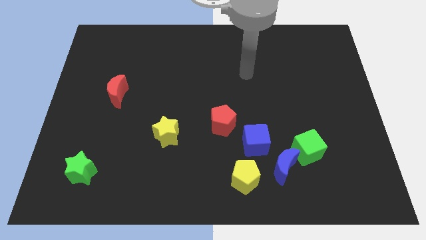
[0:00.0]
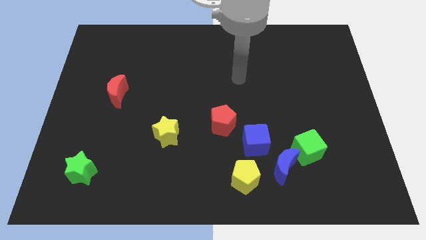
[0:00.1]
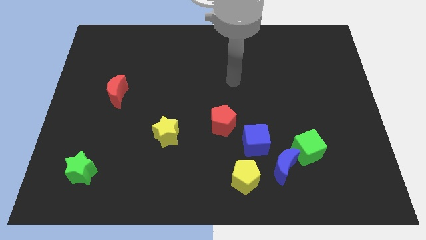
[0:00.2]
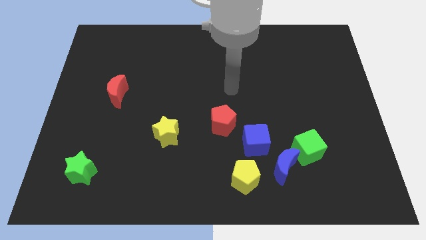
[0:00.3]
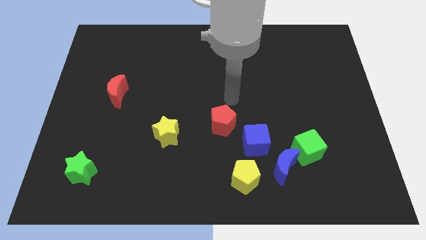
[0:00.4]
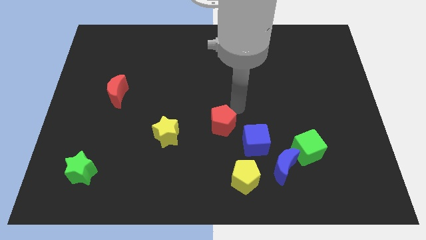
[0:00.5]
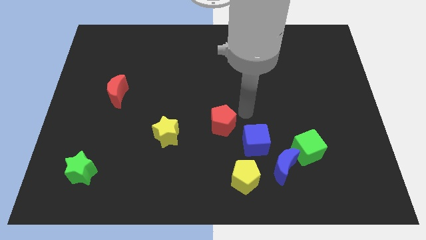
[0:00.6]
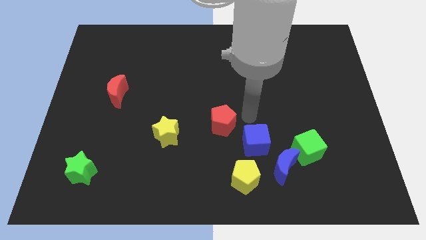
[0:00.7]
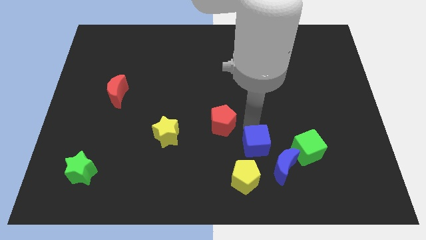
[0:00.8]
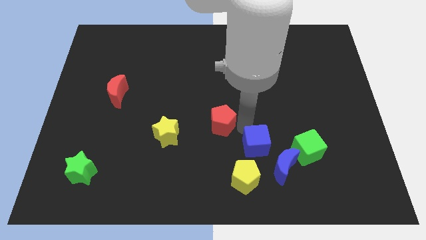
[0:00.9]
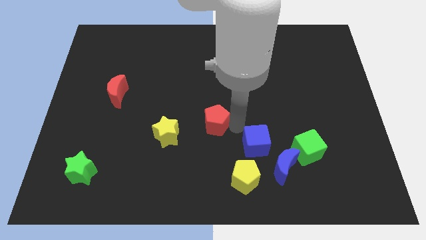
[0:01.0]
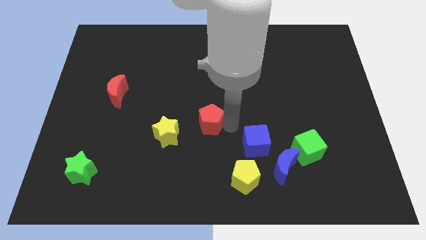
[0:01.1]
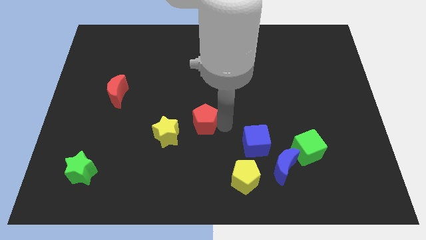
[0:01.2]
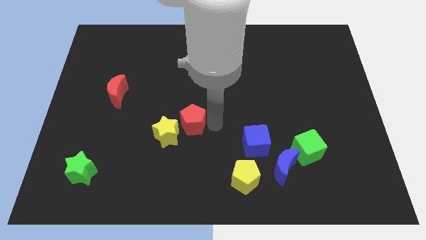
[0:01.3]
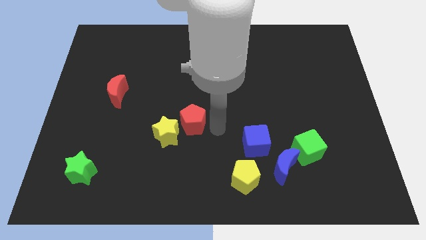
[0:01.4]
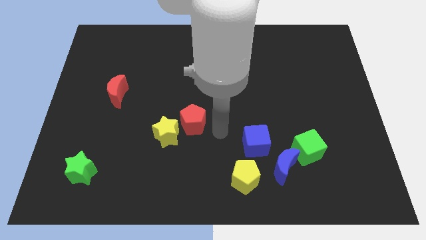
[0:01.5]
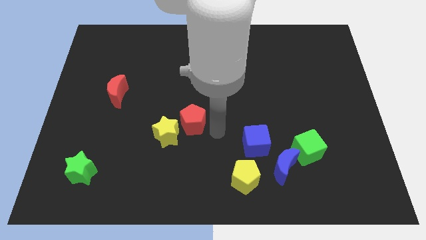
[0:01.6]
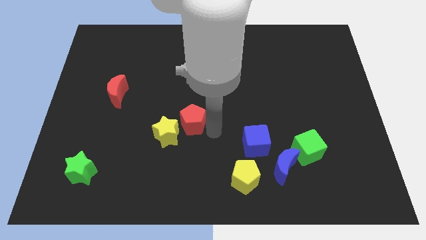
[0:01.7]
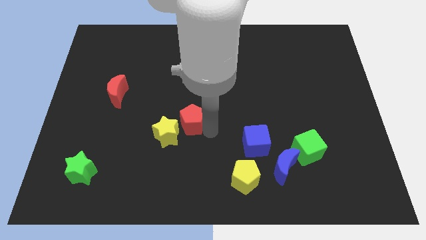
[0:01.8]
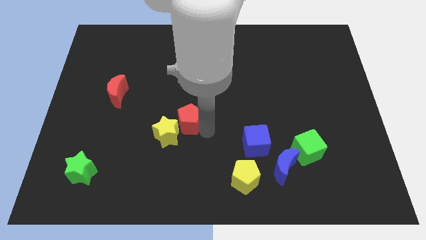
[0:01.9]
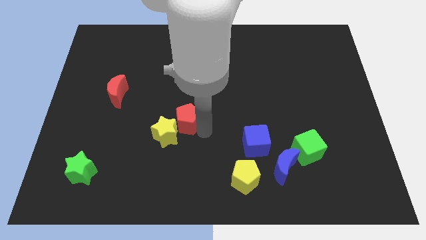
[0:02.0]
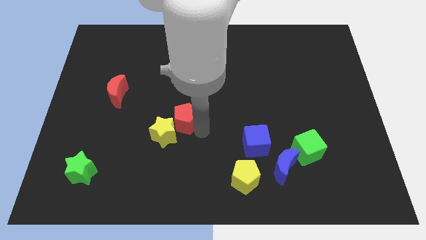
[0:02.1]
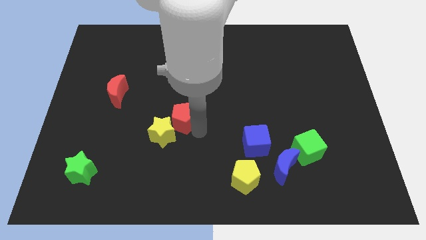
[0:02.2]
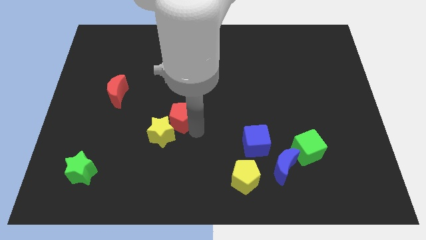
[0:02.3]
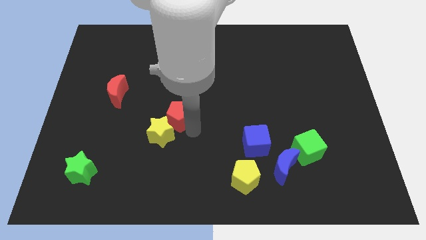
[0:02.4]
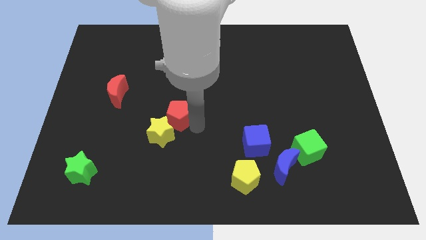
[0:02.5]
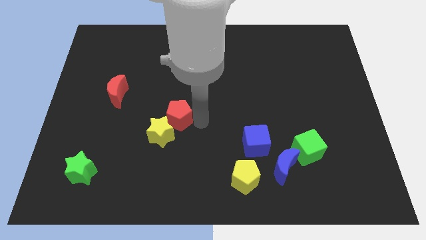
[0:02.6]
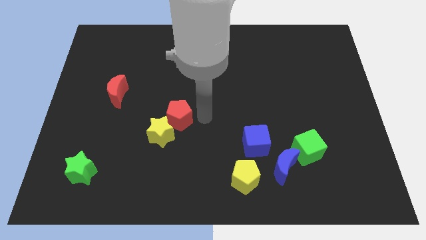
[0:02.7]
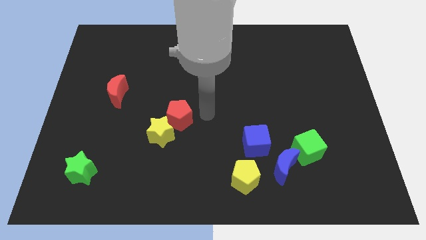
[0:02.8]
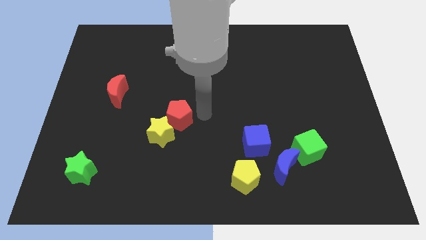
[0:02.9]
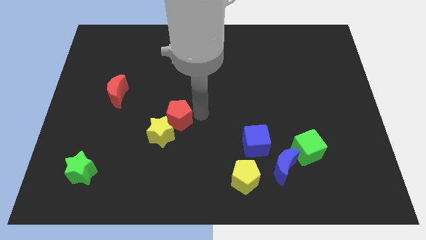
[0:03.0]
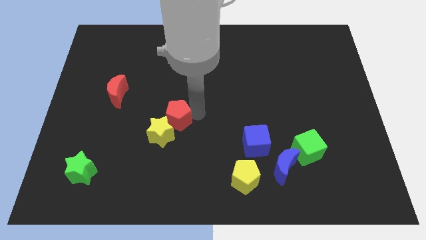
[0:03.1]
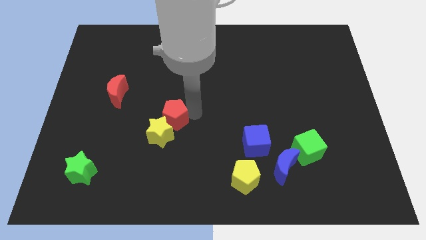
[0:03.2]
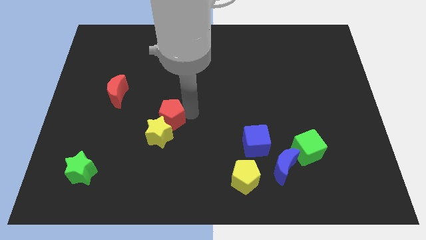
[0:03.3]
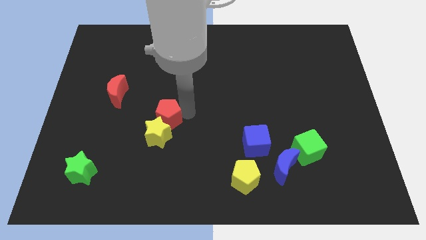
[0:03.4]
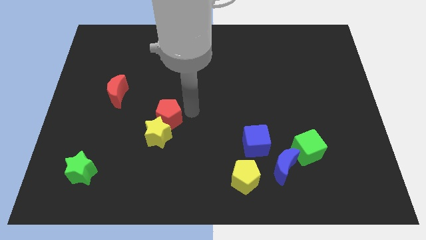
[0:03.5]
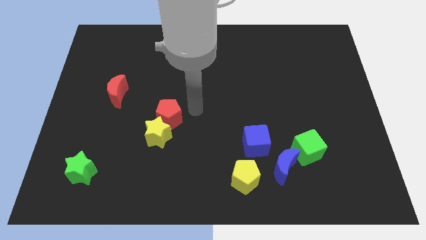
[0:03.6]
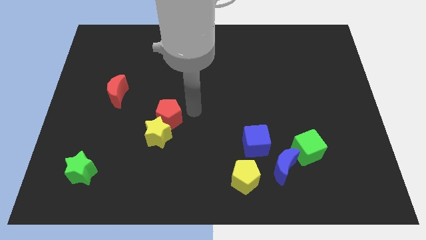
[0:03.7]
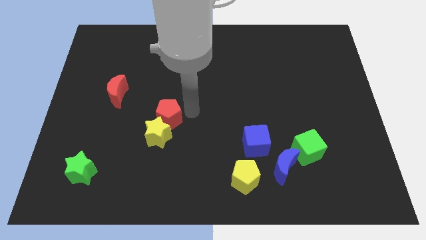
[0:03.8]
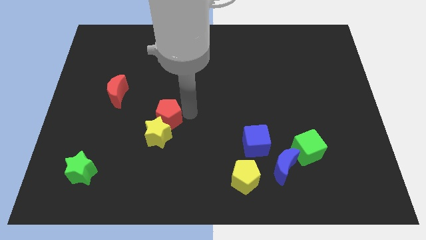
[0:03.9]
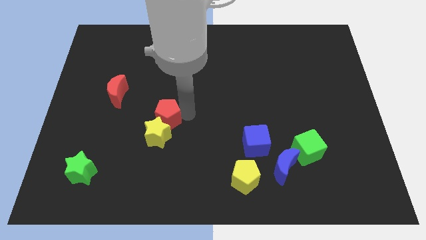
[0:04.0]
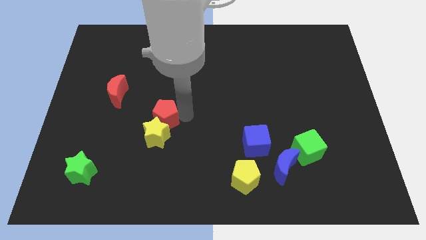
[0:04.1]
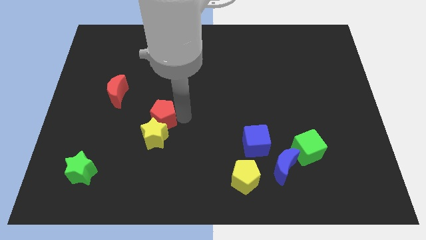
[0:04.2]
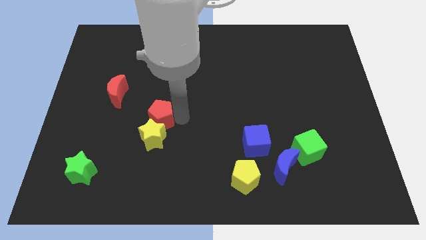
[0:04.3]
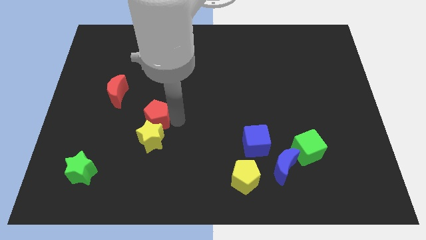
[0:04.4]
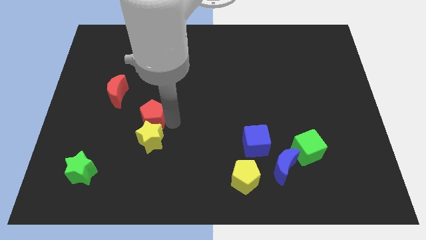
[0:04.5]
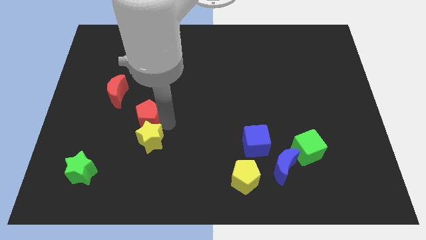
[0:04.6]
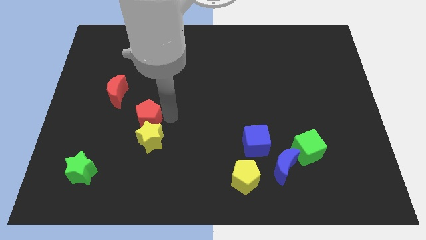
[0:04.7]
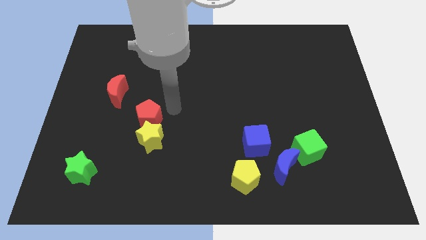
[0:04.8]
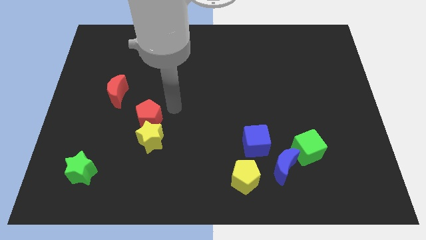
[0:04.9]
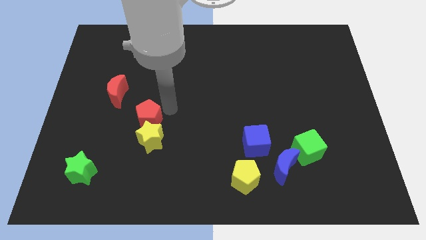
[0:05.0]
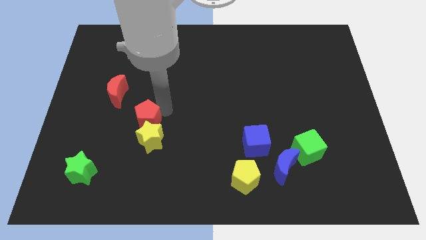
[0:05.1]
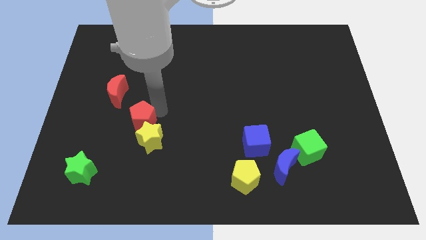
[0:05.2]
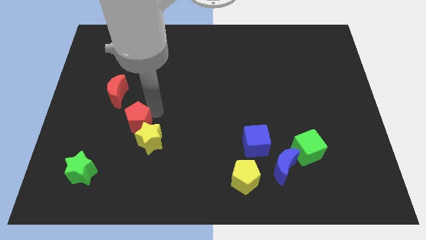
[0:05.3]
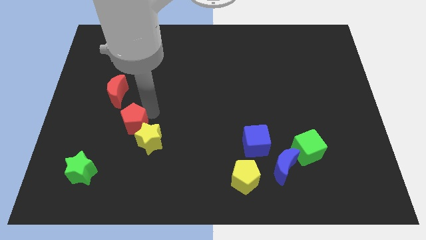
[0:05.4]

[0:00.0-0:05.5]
push the red pentagon left of the yellow star

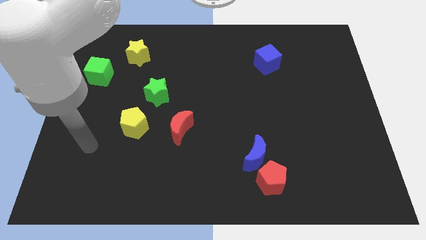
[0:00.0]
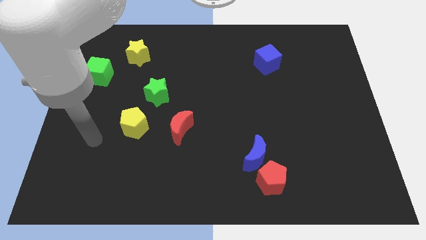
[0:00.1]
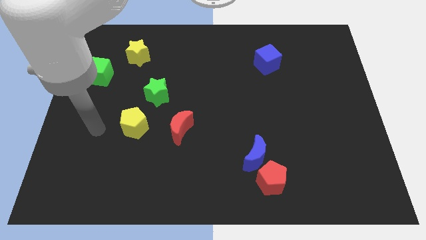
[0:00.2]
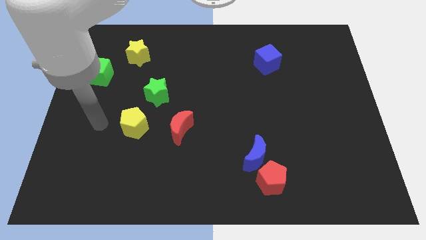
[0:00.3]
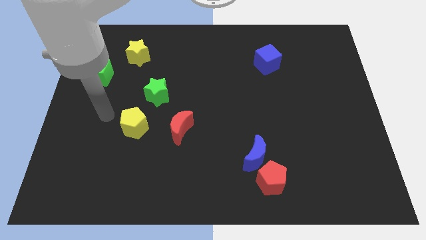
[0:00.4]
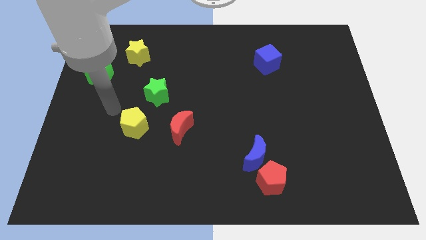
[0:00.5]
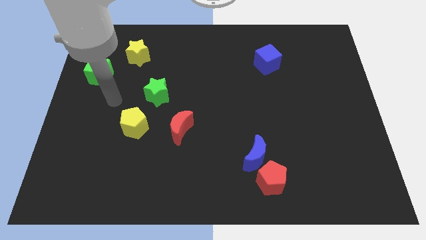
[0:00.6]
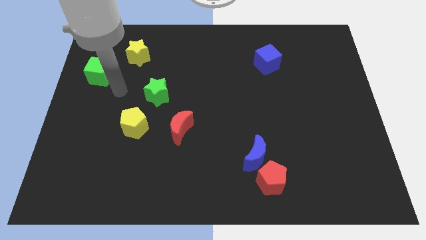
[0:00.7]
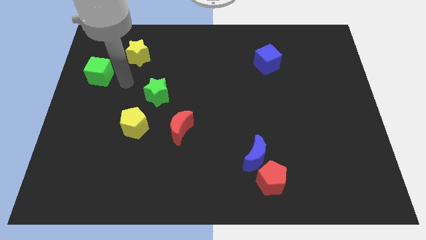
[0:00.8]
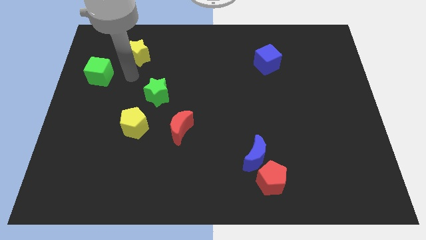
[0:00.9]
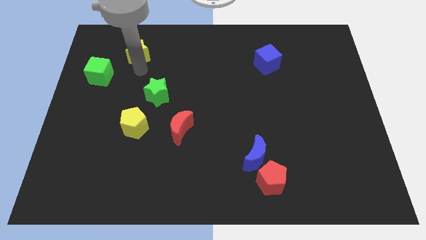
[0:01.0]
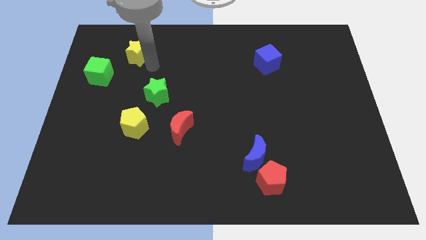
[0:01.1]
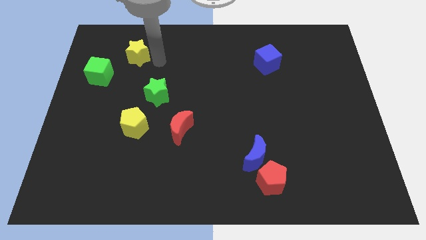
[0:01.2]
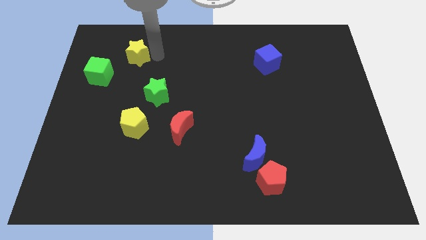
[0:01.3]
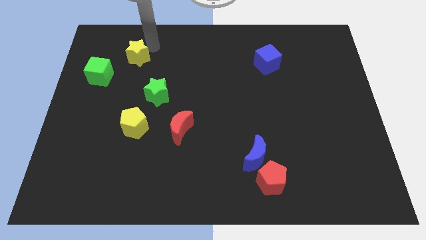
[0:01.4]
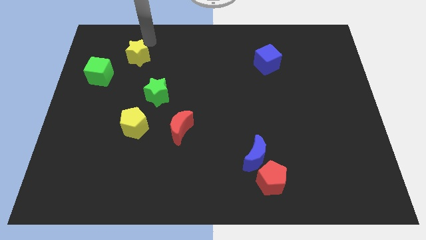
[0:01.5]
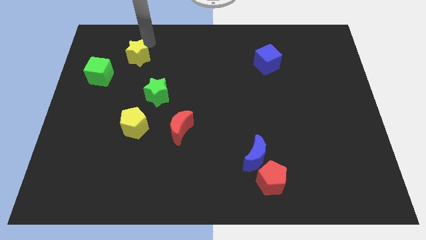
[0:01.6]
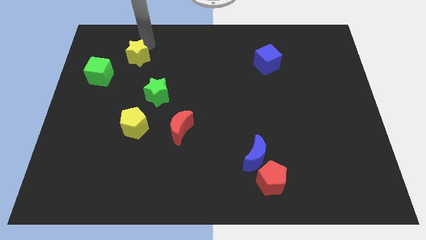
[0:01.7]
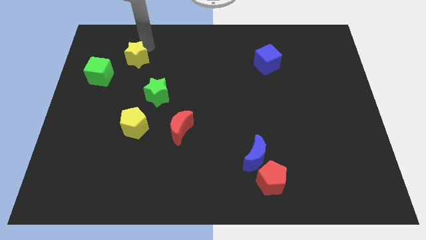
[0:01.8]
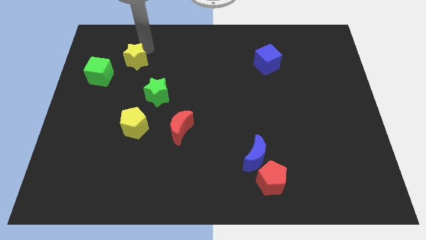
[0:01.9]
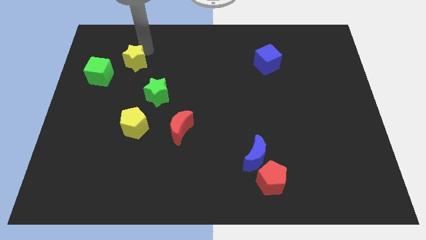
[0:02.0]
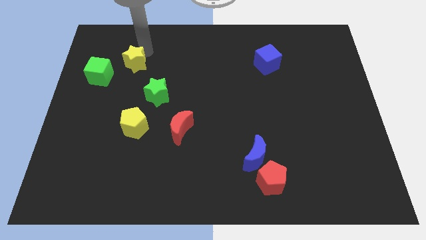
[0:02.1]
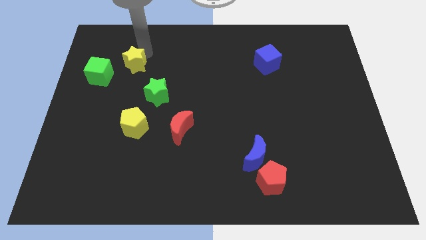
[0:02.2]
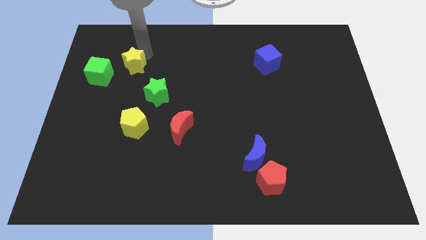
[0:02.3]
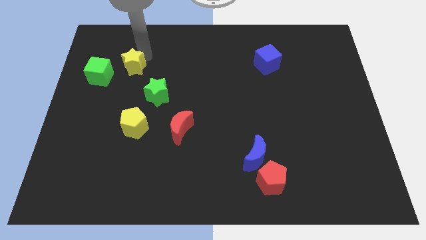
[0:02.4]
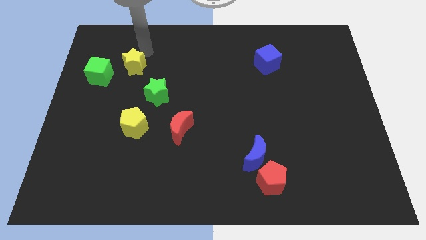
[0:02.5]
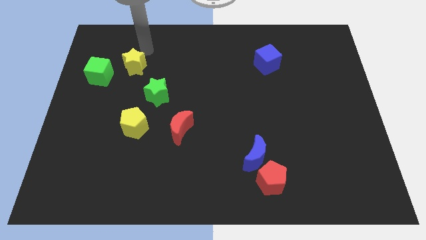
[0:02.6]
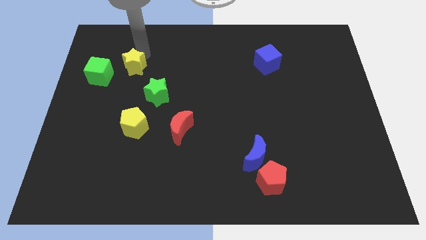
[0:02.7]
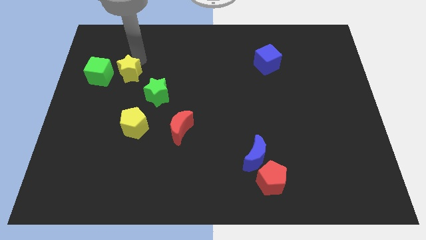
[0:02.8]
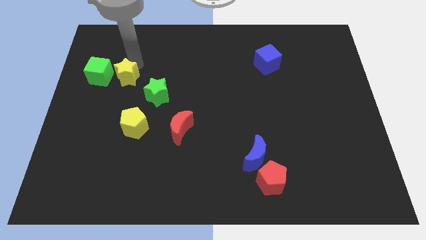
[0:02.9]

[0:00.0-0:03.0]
slide the yellow star to the bottom right of the green cube
